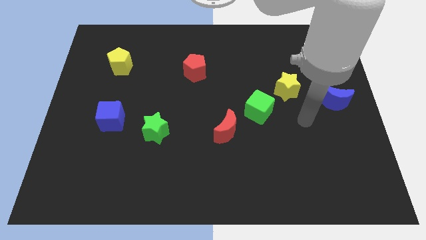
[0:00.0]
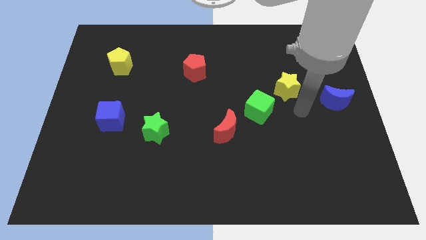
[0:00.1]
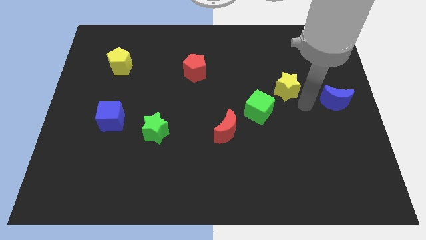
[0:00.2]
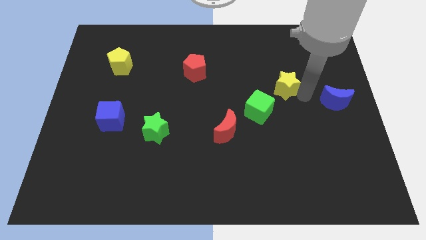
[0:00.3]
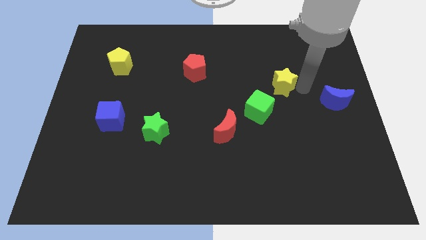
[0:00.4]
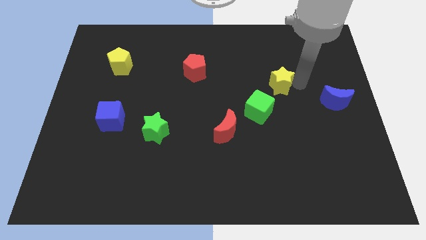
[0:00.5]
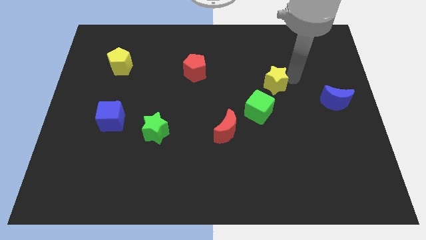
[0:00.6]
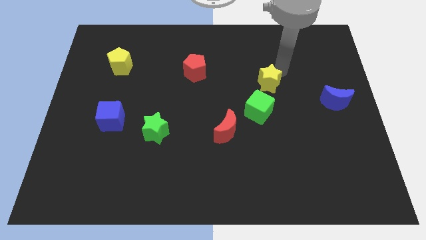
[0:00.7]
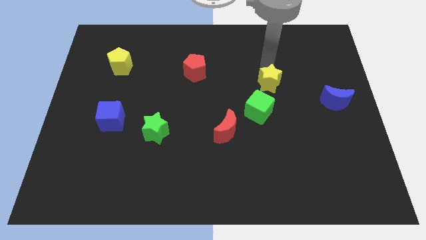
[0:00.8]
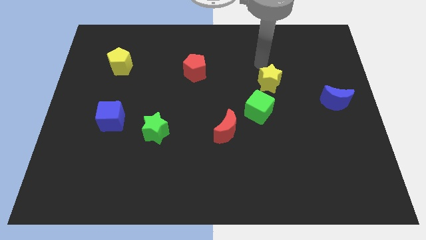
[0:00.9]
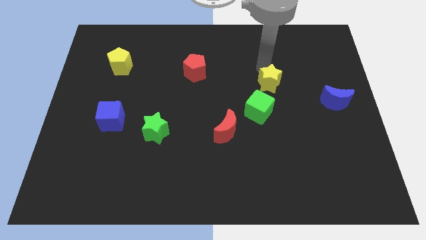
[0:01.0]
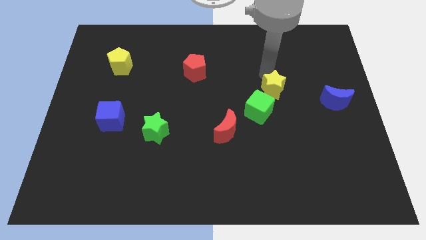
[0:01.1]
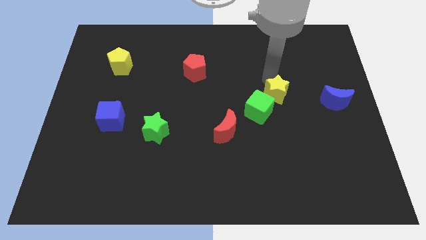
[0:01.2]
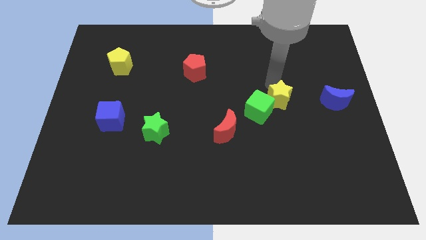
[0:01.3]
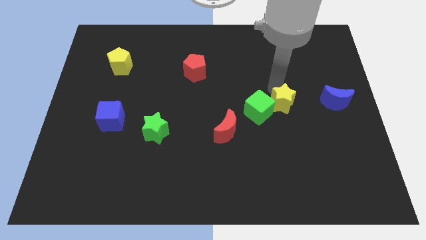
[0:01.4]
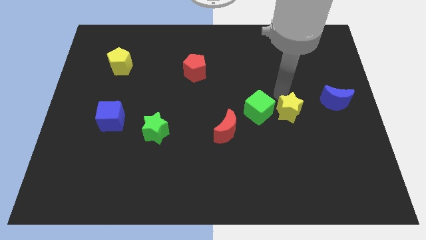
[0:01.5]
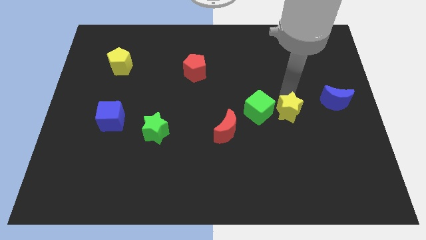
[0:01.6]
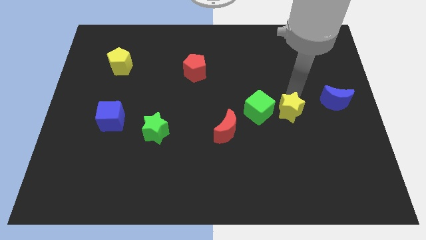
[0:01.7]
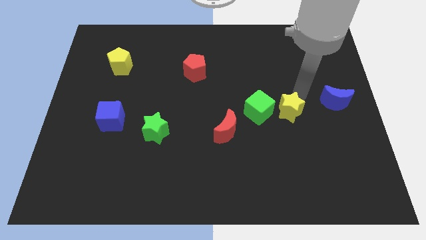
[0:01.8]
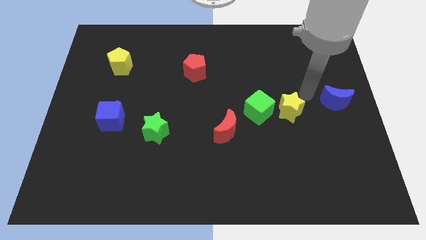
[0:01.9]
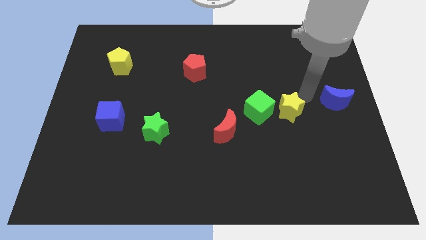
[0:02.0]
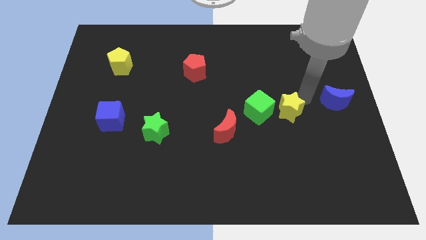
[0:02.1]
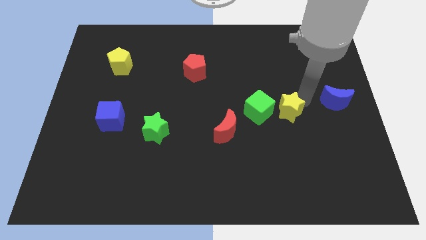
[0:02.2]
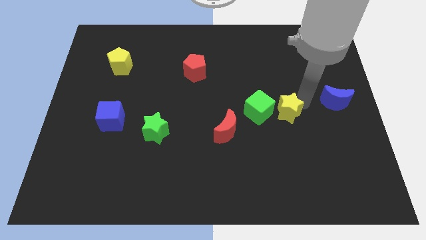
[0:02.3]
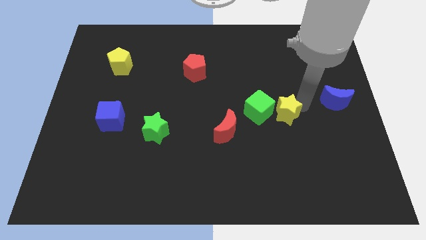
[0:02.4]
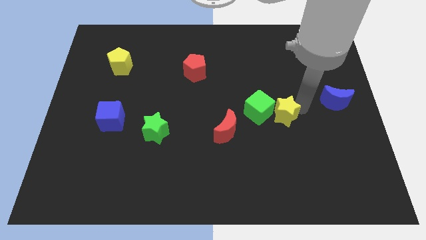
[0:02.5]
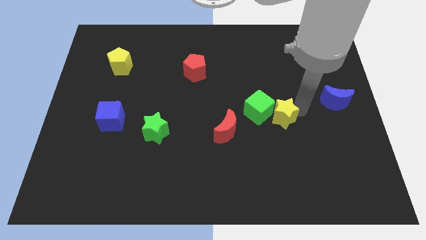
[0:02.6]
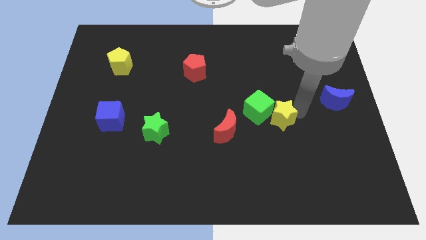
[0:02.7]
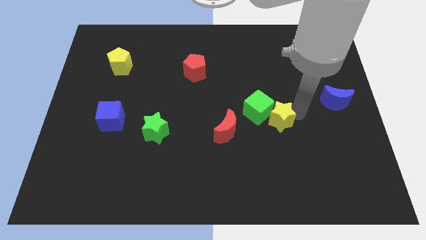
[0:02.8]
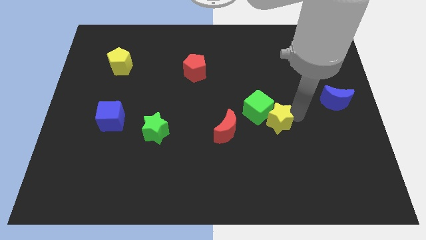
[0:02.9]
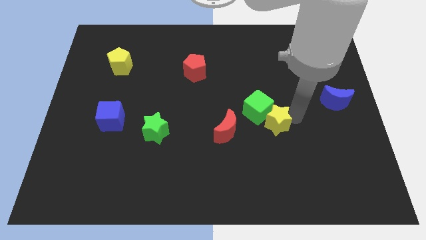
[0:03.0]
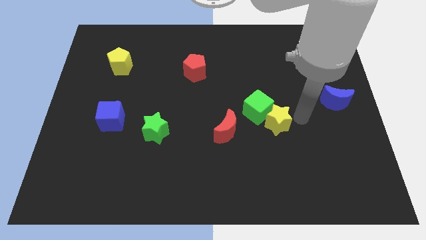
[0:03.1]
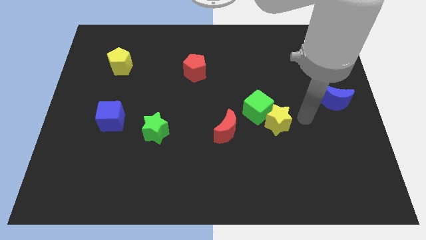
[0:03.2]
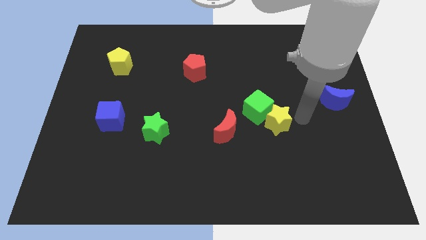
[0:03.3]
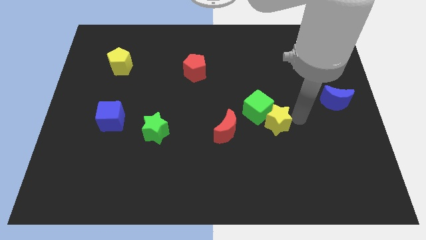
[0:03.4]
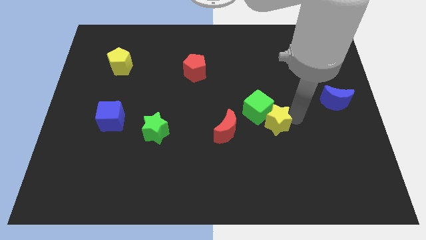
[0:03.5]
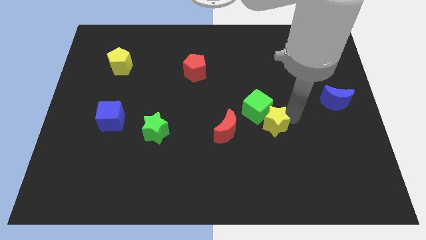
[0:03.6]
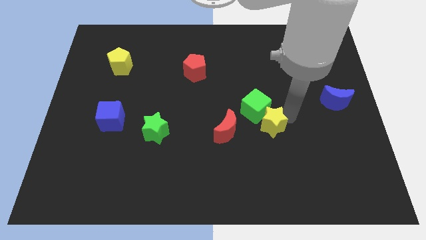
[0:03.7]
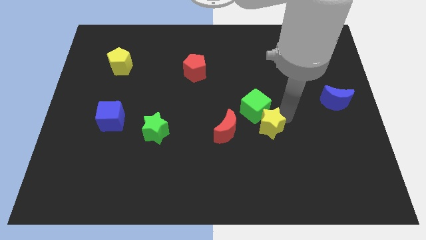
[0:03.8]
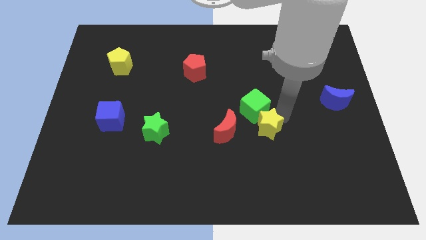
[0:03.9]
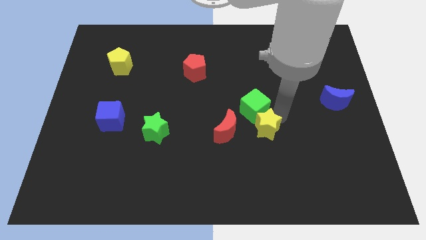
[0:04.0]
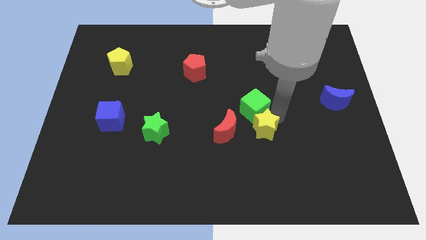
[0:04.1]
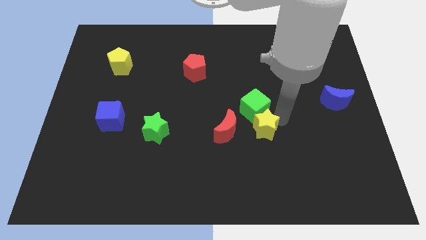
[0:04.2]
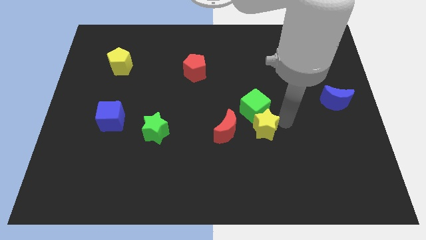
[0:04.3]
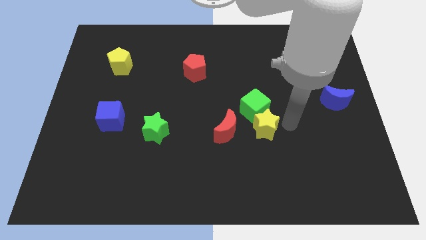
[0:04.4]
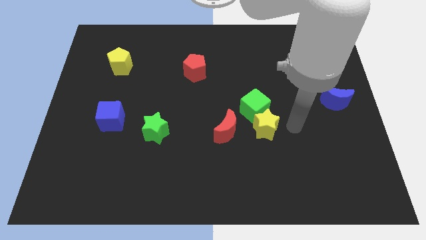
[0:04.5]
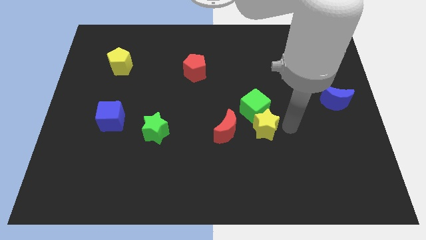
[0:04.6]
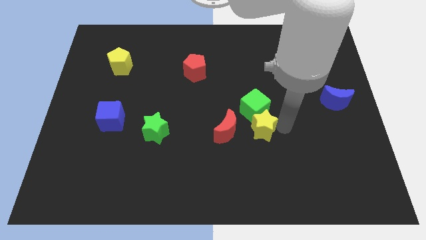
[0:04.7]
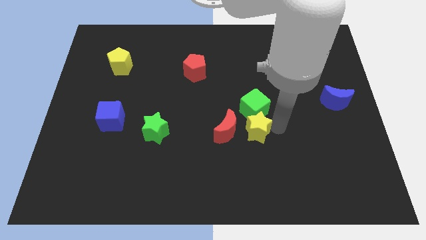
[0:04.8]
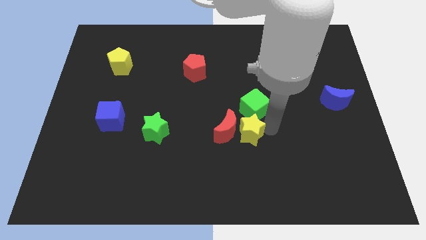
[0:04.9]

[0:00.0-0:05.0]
push the yellow star to the red moon

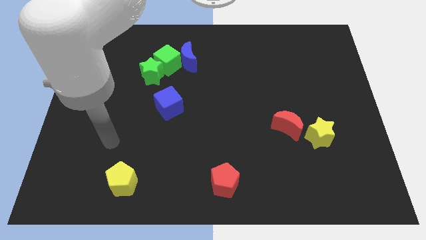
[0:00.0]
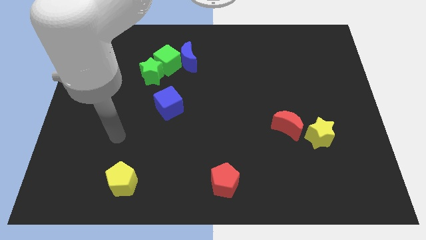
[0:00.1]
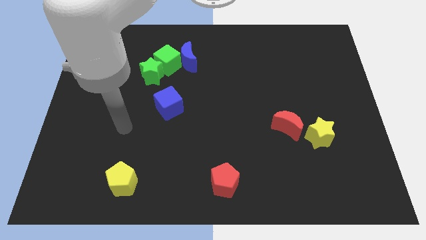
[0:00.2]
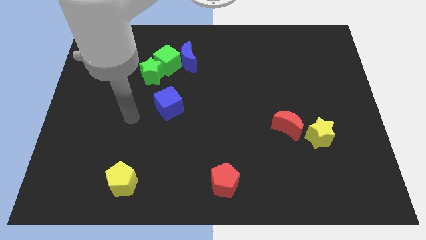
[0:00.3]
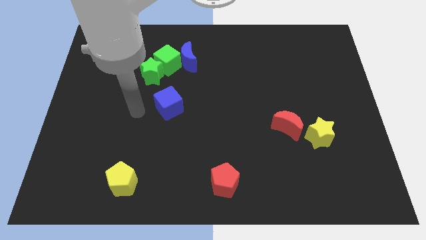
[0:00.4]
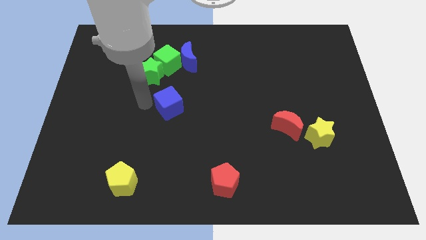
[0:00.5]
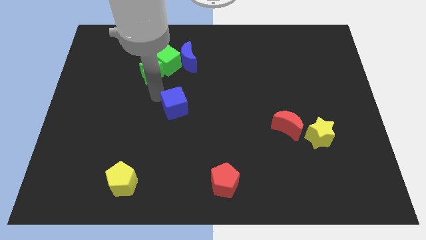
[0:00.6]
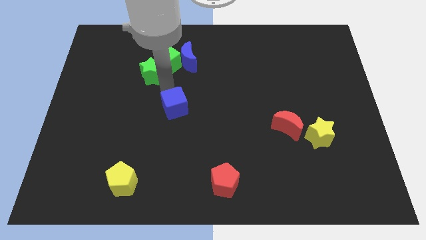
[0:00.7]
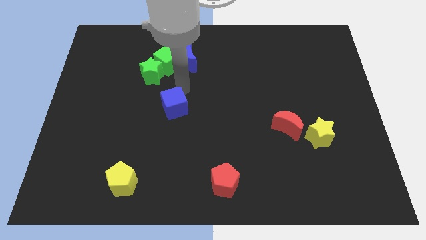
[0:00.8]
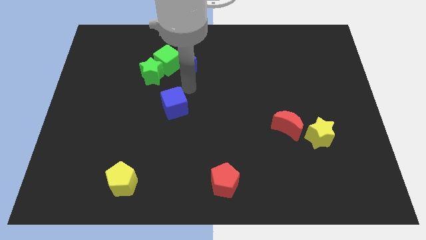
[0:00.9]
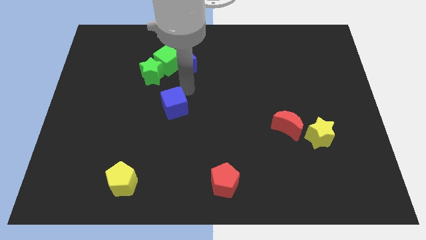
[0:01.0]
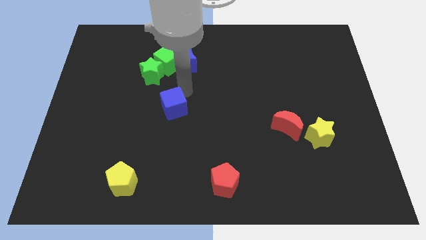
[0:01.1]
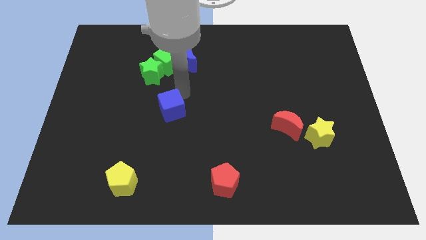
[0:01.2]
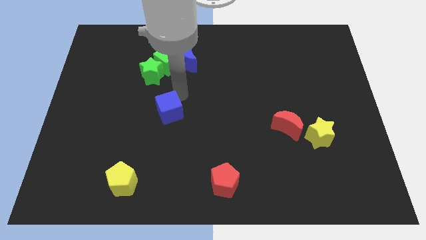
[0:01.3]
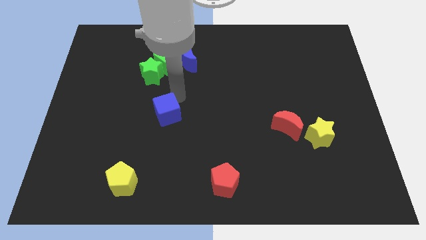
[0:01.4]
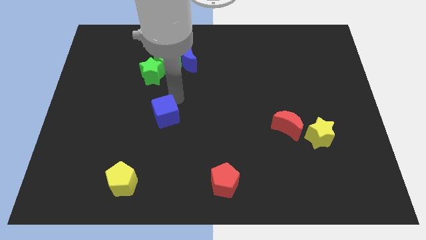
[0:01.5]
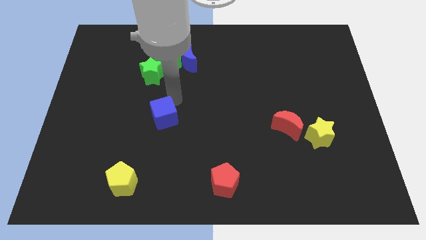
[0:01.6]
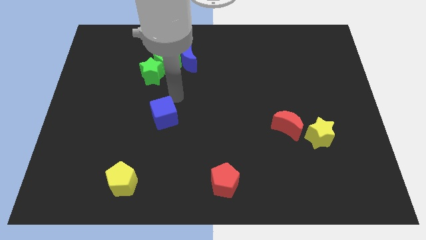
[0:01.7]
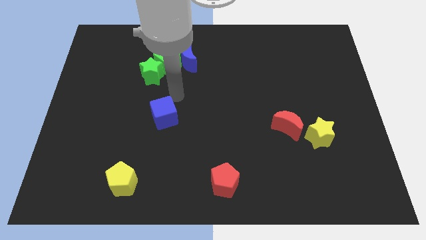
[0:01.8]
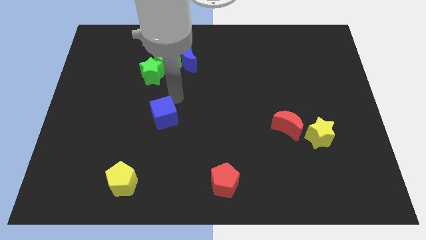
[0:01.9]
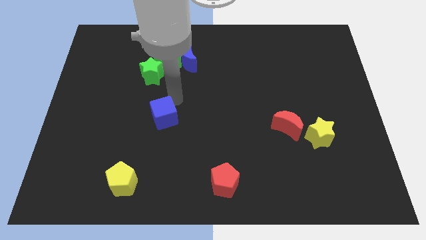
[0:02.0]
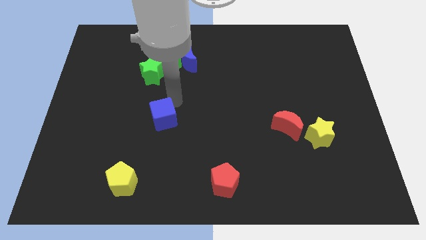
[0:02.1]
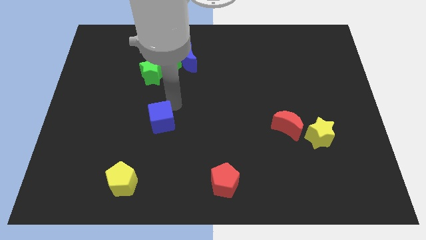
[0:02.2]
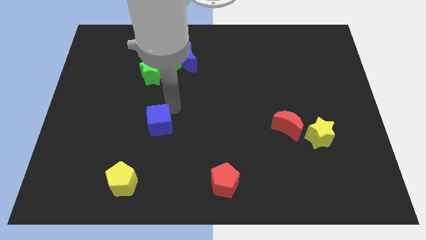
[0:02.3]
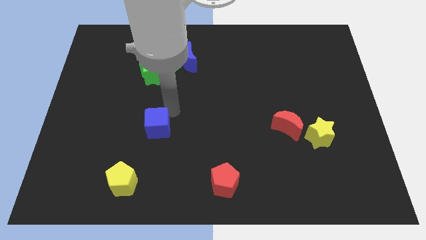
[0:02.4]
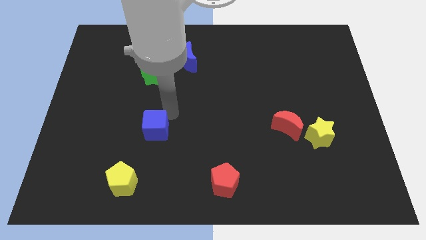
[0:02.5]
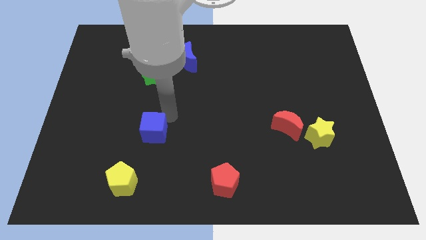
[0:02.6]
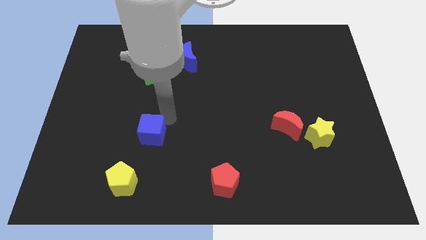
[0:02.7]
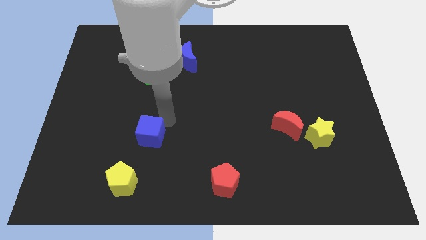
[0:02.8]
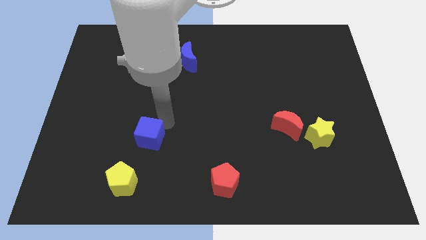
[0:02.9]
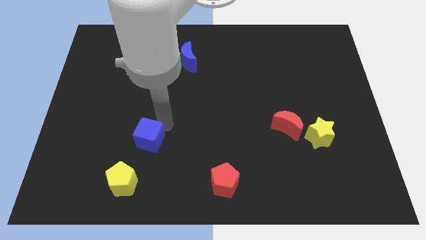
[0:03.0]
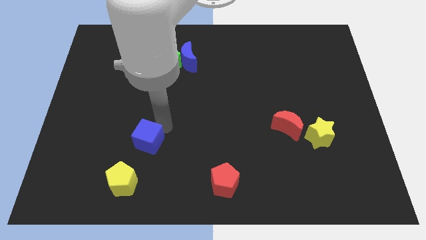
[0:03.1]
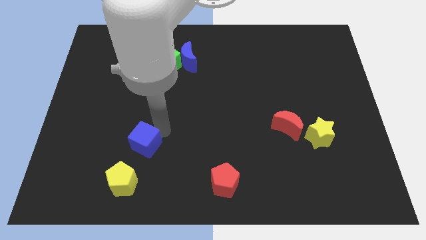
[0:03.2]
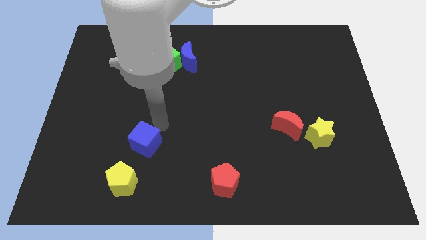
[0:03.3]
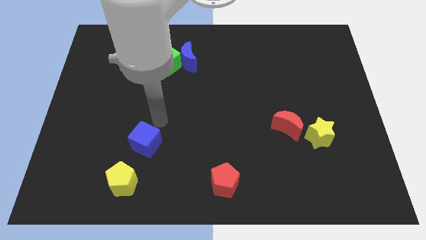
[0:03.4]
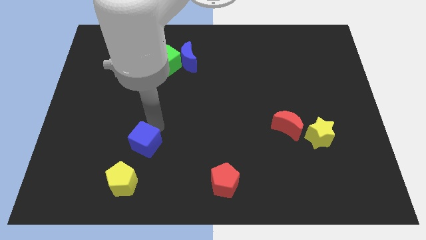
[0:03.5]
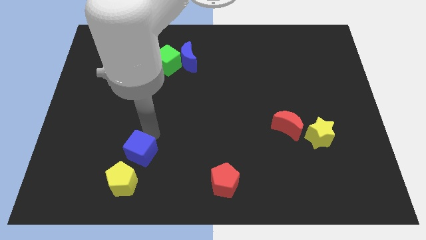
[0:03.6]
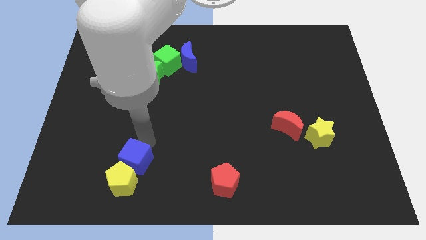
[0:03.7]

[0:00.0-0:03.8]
put the blue cube to the yellow pentagon
